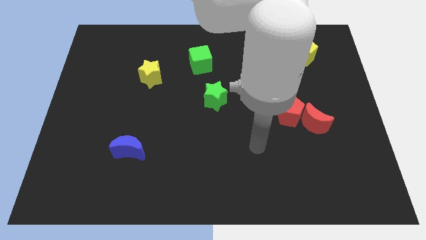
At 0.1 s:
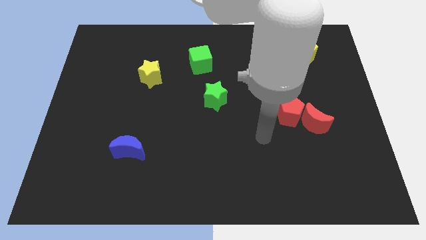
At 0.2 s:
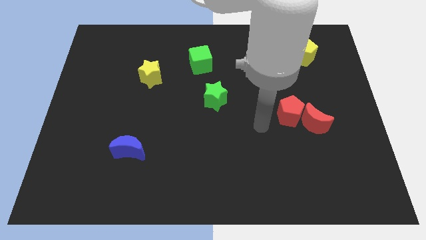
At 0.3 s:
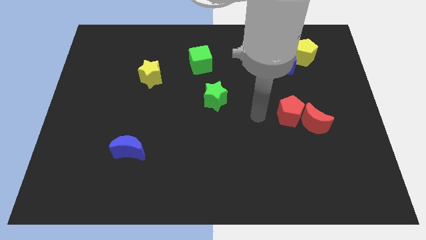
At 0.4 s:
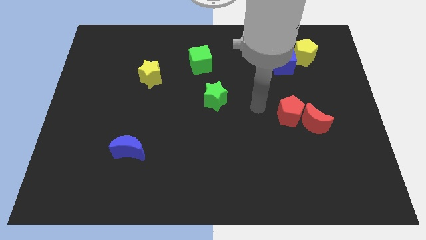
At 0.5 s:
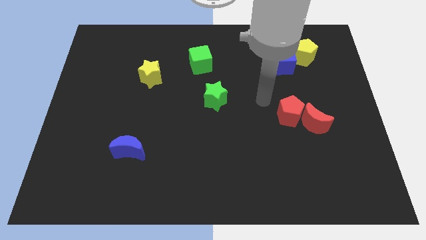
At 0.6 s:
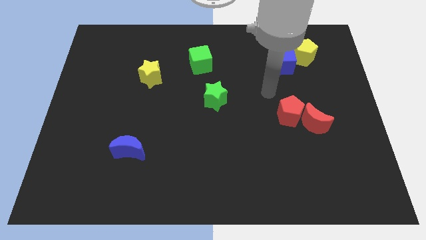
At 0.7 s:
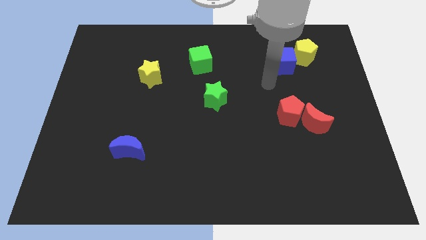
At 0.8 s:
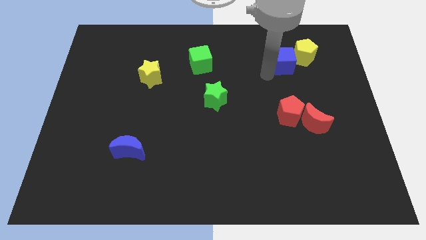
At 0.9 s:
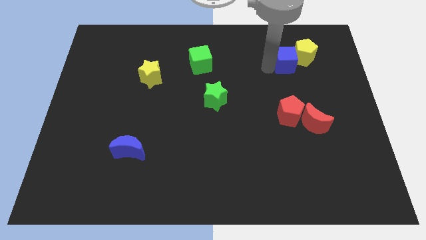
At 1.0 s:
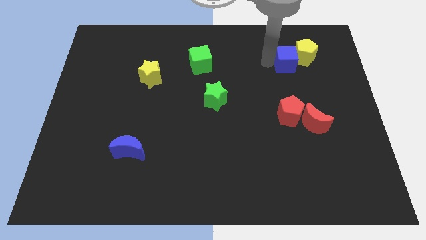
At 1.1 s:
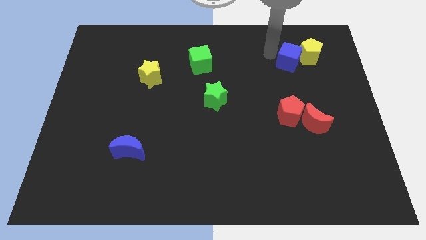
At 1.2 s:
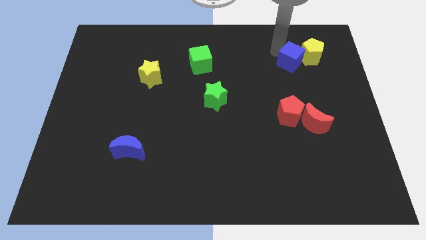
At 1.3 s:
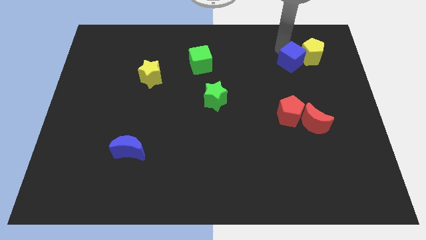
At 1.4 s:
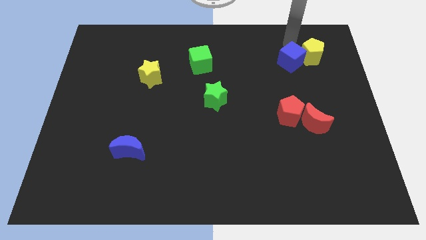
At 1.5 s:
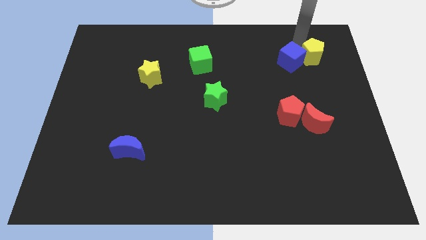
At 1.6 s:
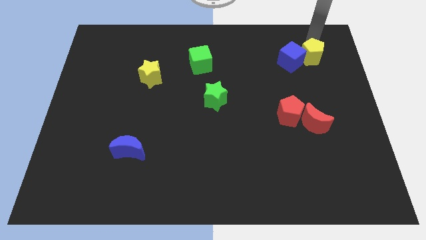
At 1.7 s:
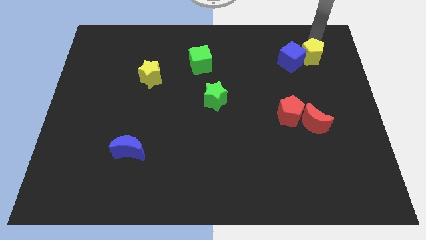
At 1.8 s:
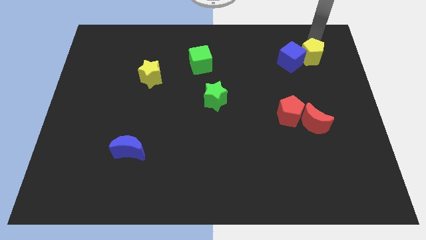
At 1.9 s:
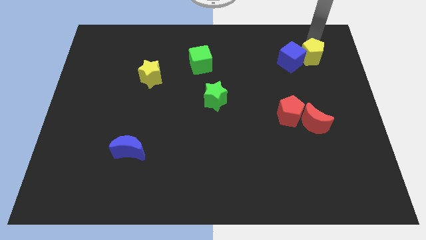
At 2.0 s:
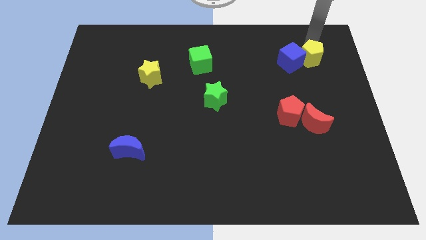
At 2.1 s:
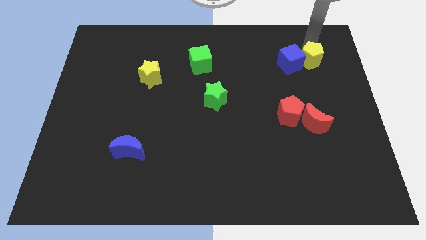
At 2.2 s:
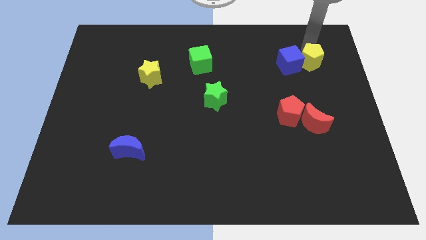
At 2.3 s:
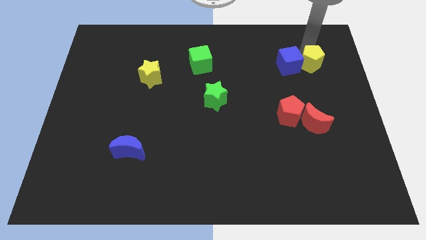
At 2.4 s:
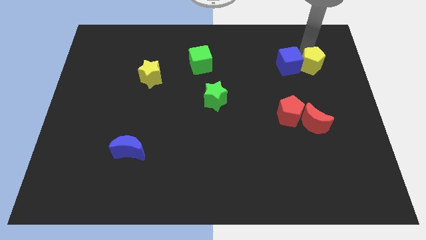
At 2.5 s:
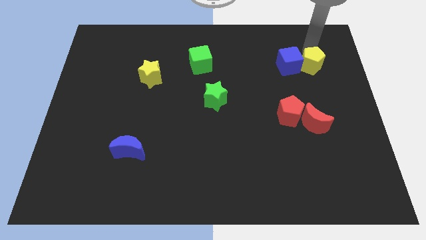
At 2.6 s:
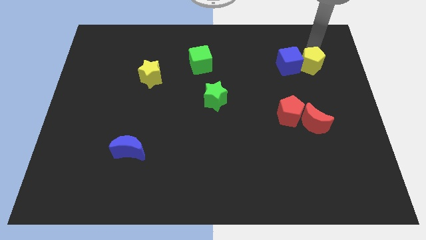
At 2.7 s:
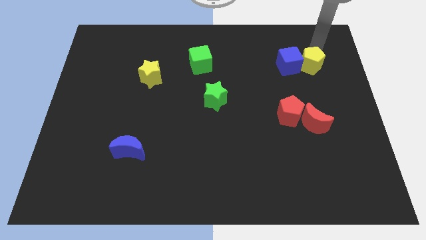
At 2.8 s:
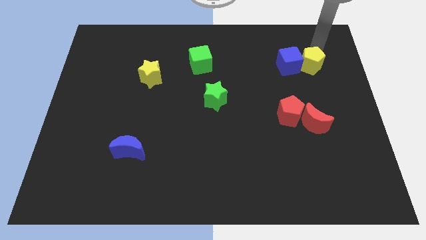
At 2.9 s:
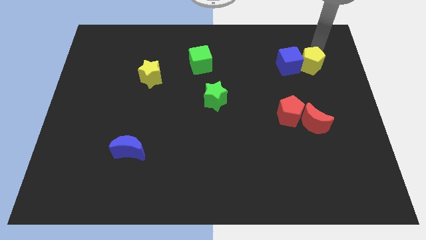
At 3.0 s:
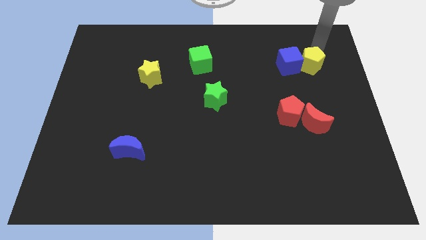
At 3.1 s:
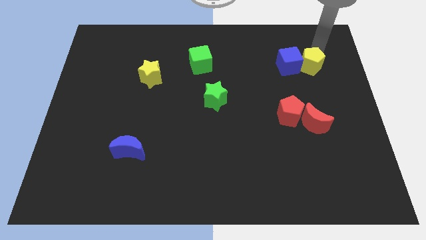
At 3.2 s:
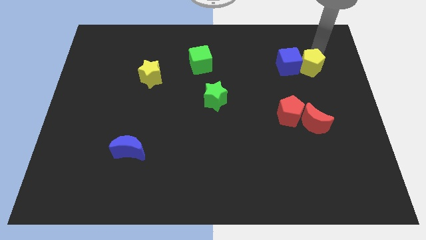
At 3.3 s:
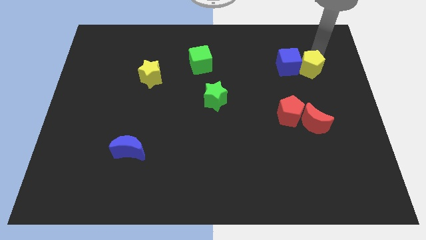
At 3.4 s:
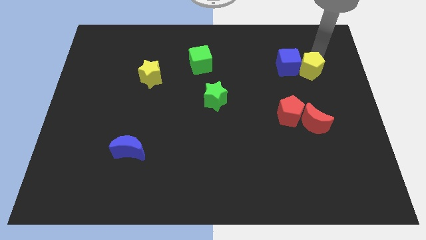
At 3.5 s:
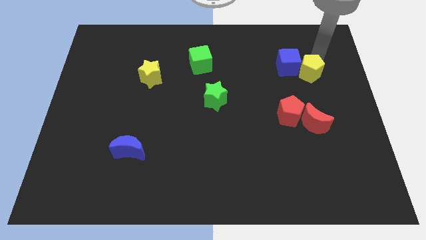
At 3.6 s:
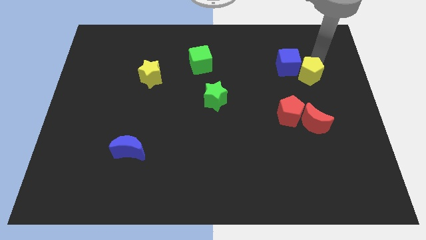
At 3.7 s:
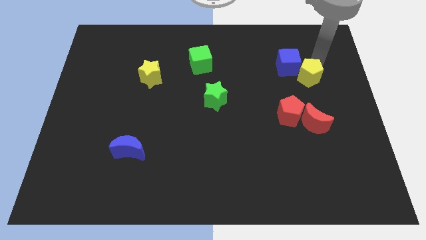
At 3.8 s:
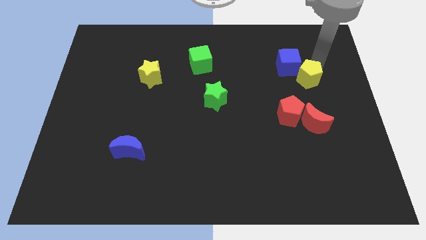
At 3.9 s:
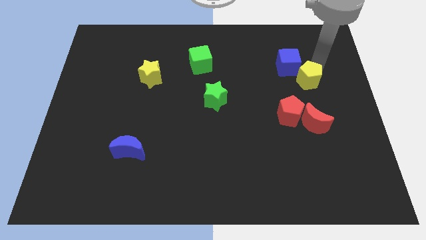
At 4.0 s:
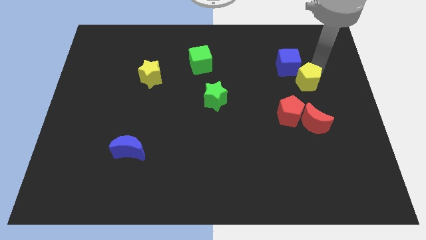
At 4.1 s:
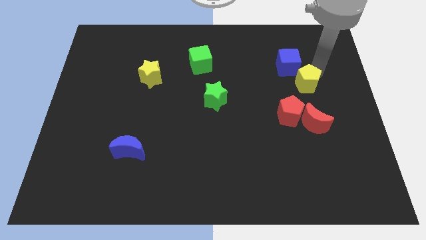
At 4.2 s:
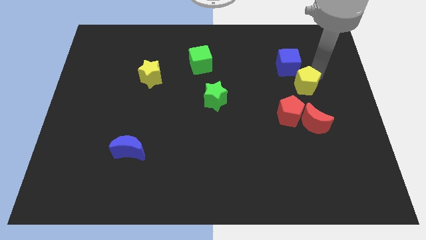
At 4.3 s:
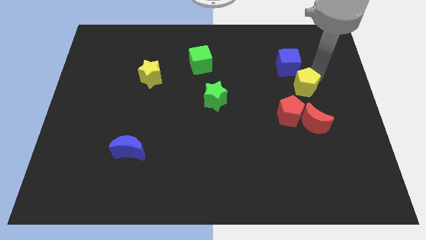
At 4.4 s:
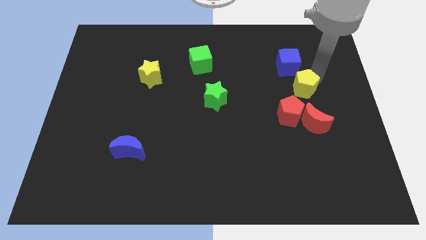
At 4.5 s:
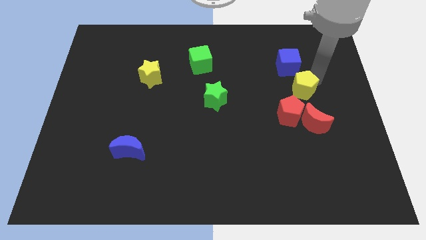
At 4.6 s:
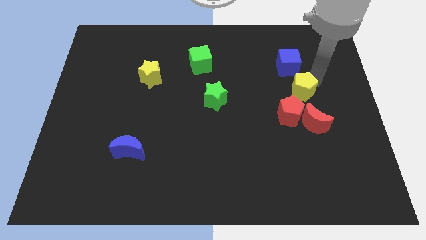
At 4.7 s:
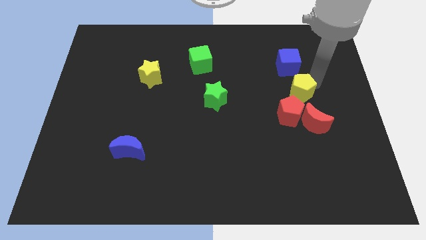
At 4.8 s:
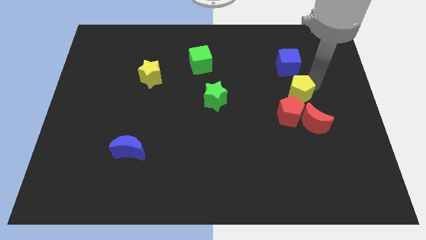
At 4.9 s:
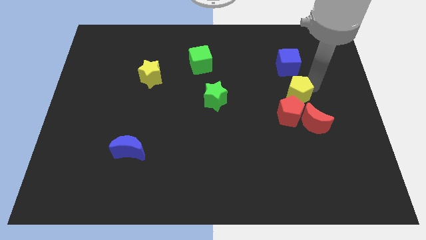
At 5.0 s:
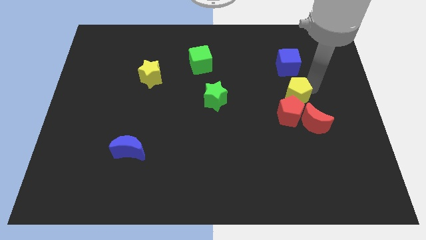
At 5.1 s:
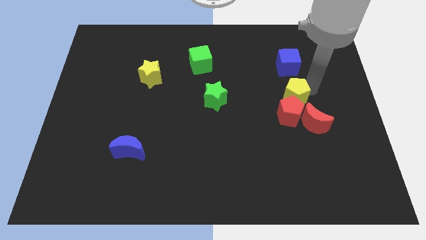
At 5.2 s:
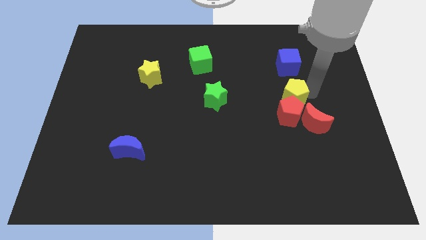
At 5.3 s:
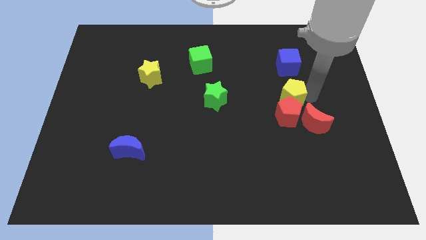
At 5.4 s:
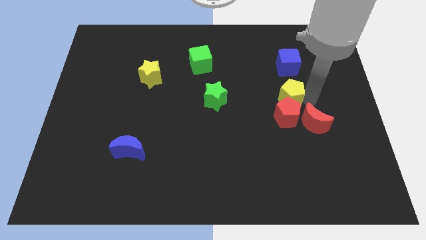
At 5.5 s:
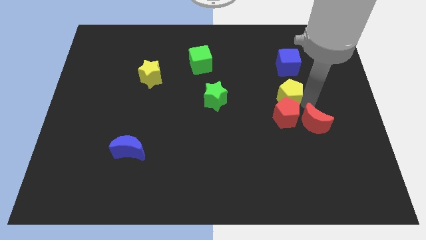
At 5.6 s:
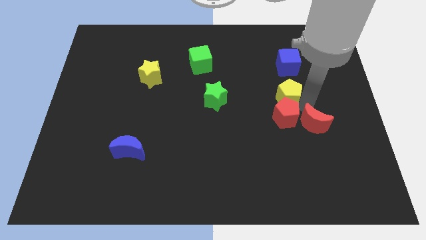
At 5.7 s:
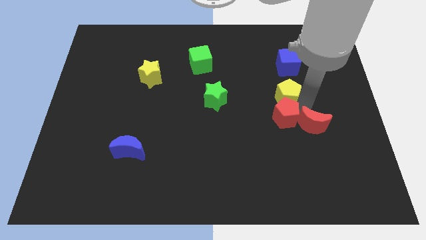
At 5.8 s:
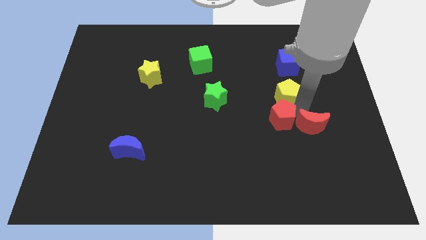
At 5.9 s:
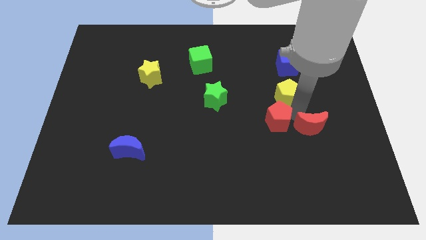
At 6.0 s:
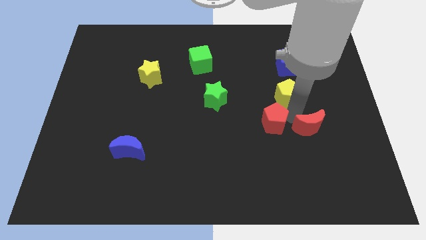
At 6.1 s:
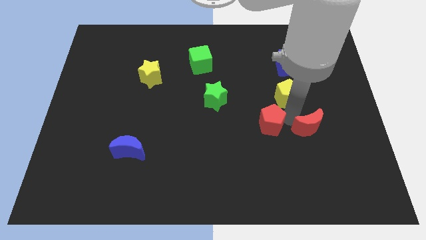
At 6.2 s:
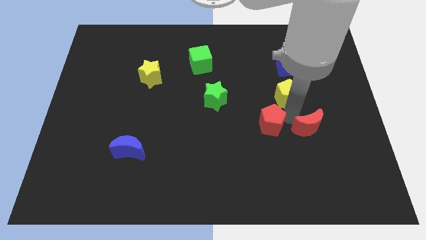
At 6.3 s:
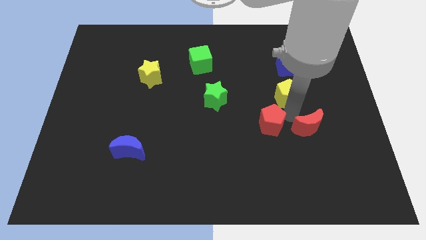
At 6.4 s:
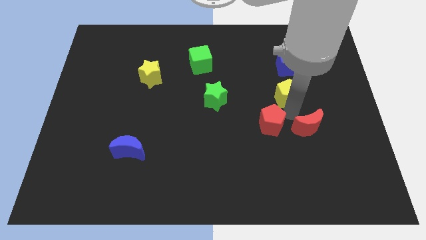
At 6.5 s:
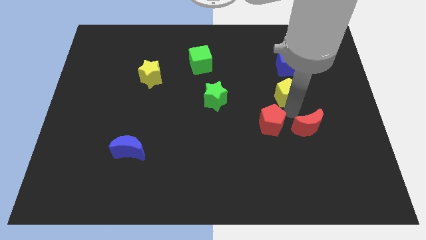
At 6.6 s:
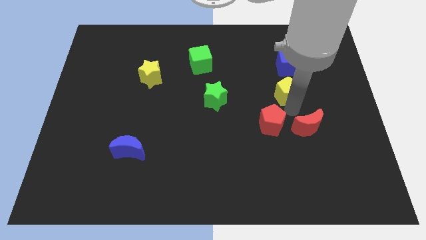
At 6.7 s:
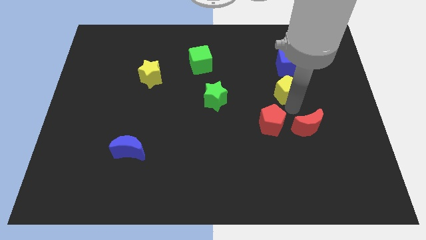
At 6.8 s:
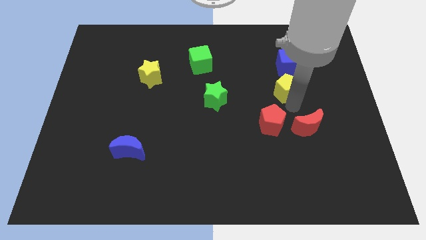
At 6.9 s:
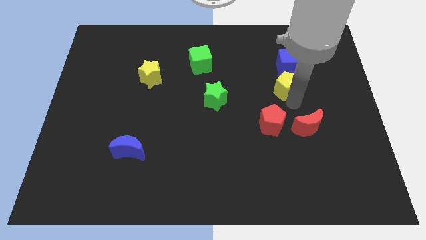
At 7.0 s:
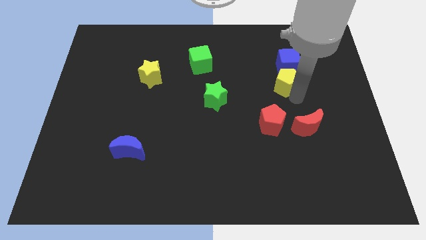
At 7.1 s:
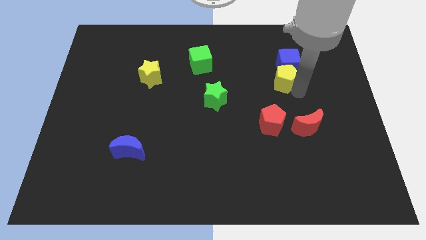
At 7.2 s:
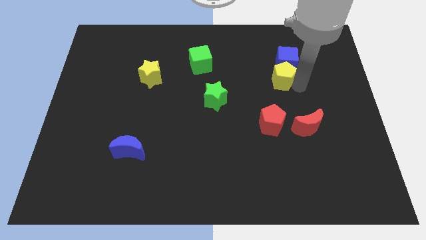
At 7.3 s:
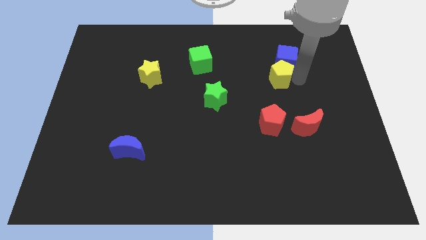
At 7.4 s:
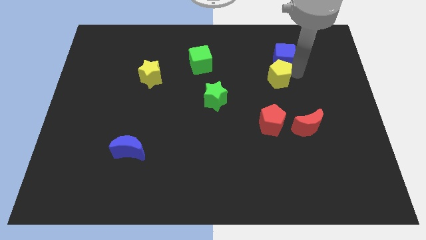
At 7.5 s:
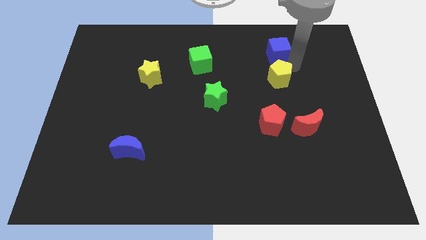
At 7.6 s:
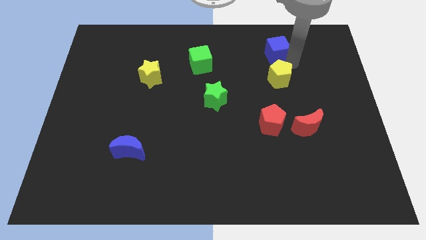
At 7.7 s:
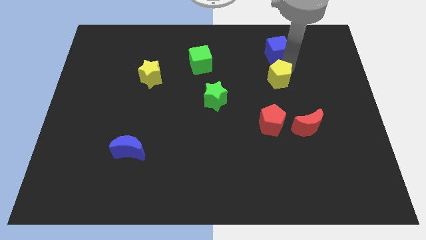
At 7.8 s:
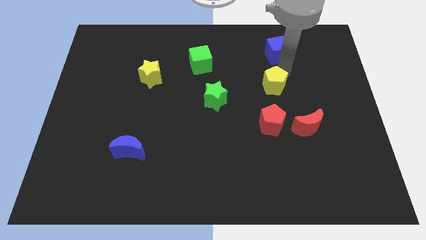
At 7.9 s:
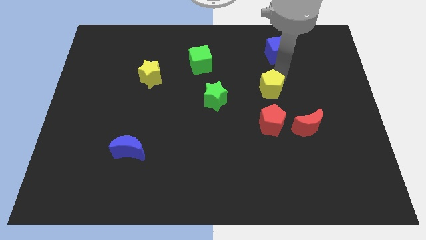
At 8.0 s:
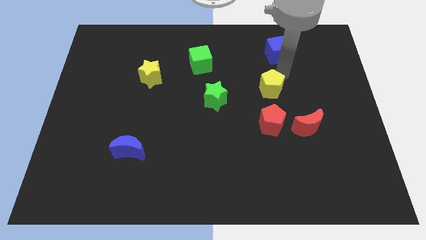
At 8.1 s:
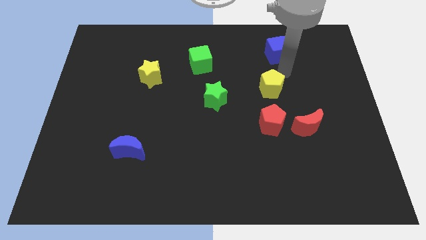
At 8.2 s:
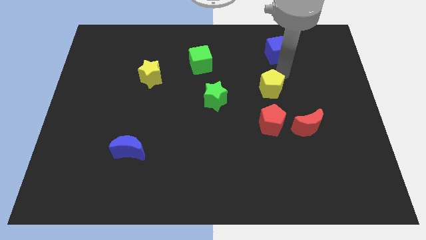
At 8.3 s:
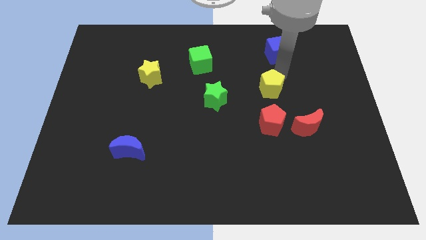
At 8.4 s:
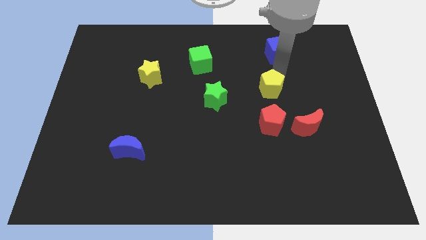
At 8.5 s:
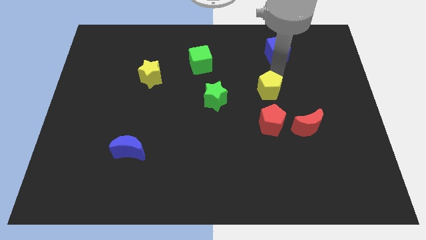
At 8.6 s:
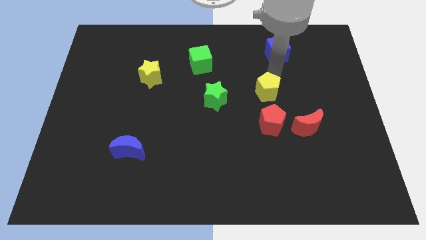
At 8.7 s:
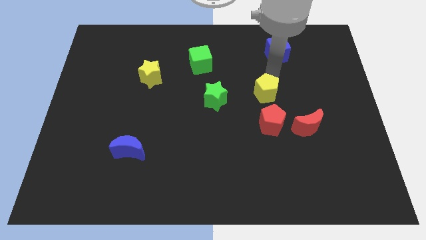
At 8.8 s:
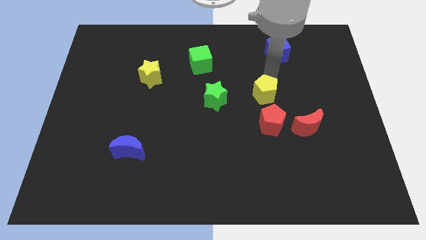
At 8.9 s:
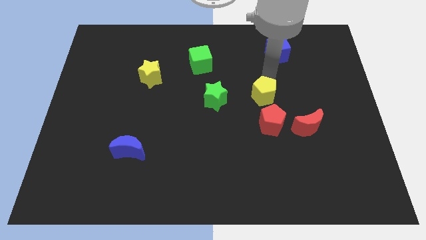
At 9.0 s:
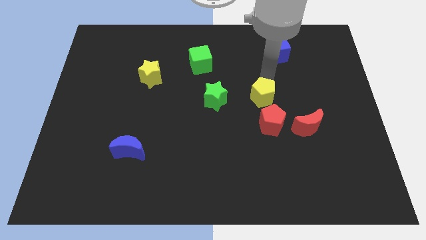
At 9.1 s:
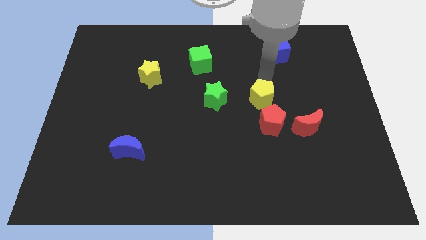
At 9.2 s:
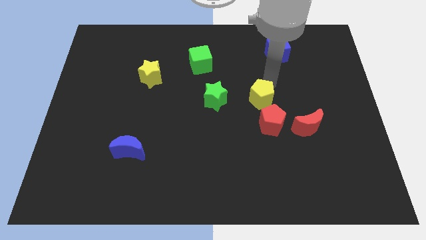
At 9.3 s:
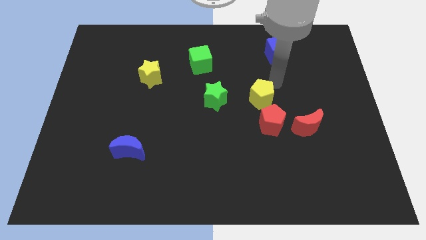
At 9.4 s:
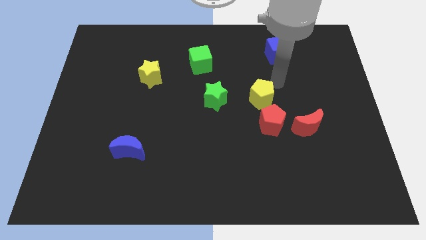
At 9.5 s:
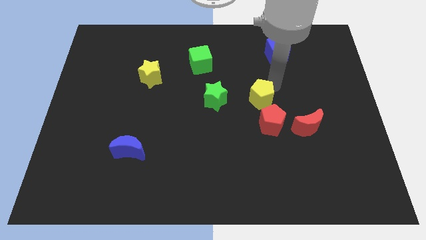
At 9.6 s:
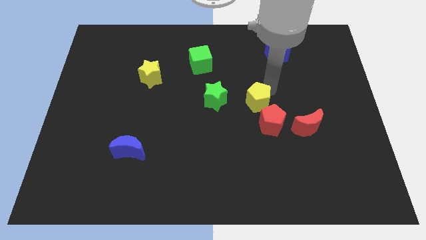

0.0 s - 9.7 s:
push the yellow pentagon down and to the left
